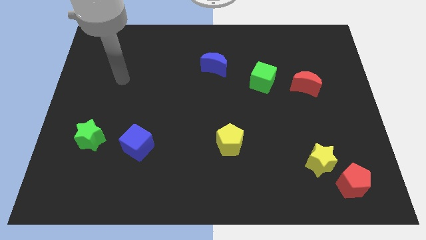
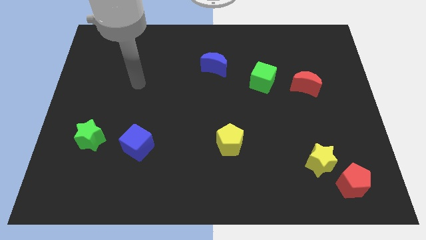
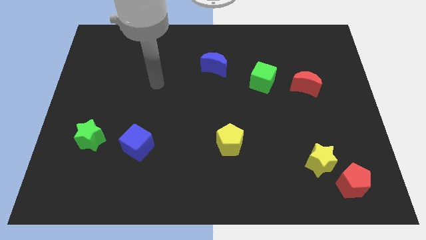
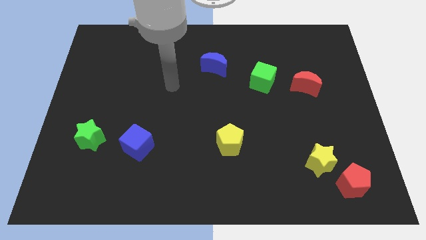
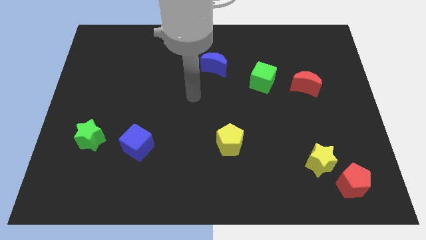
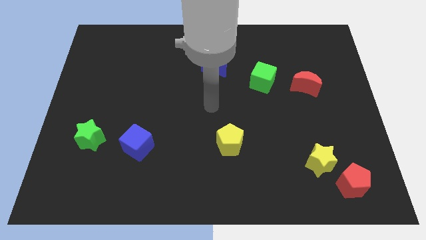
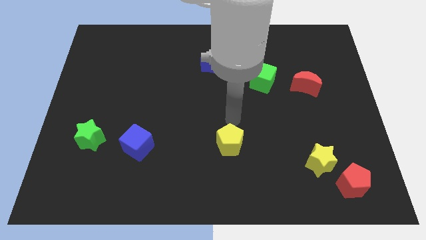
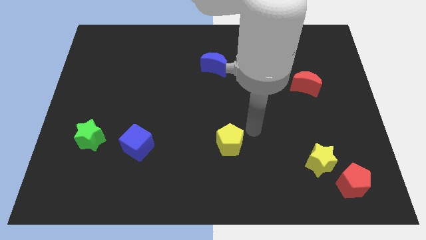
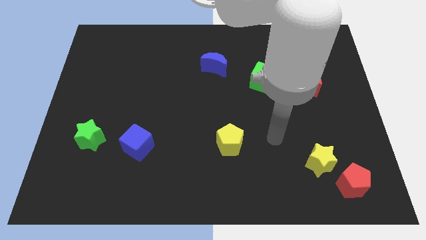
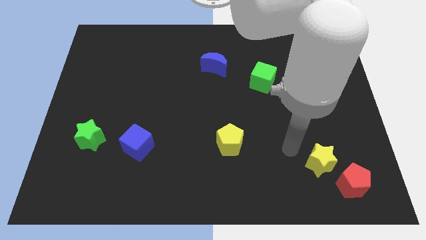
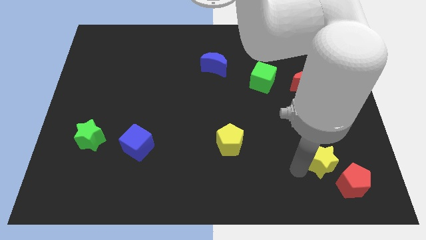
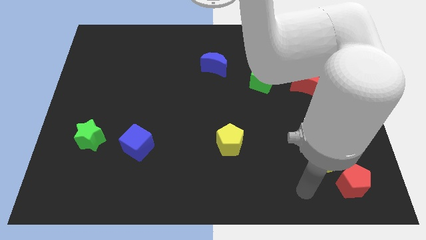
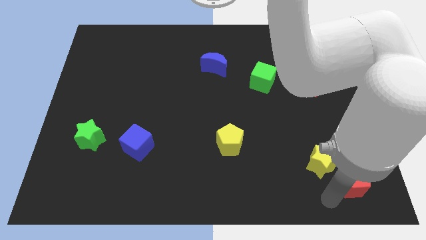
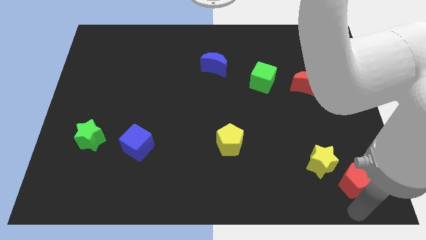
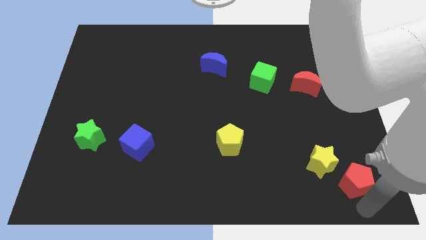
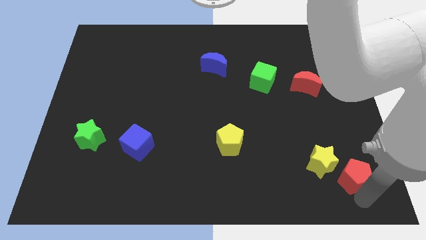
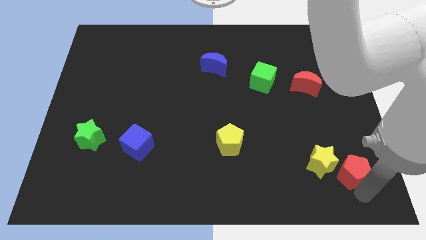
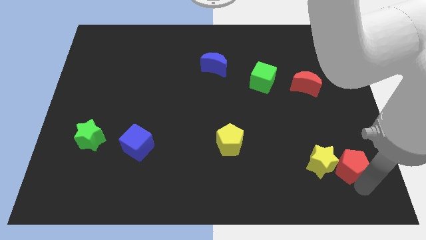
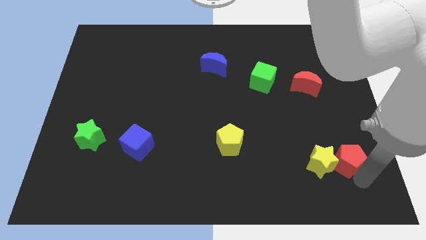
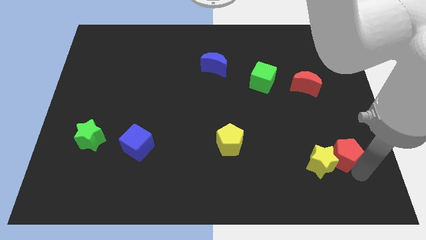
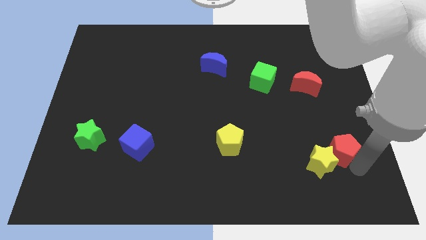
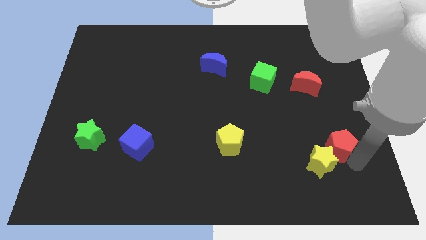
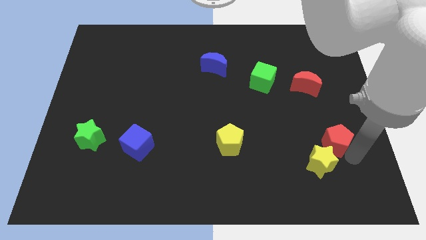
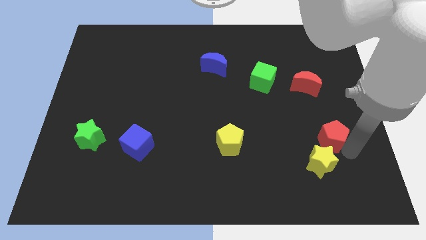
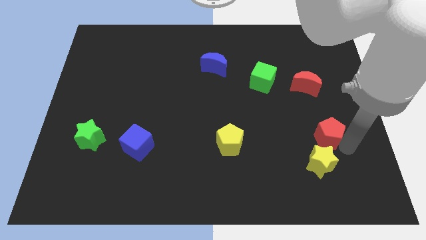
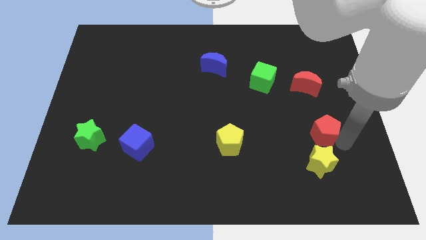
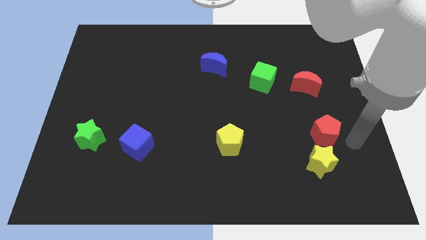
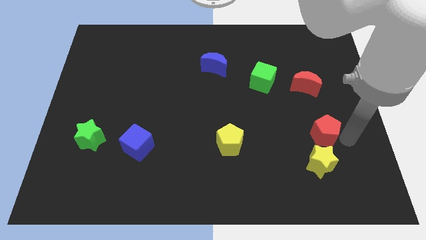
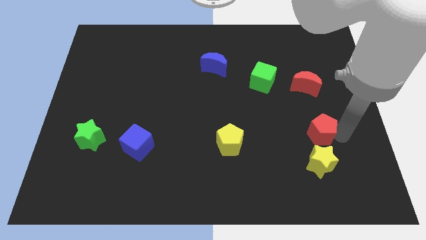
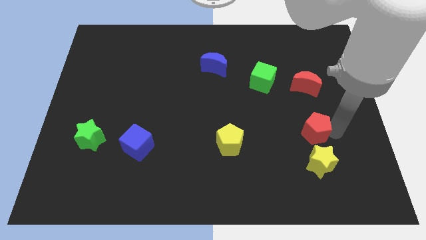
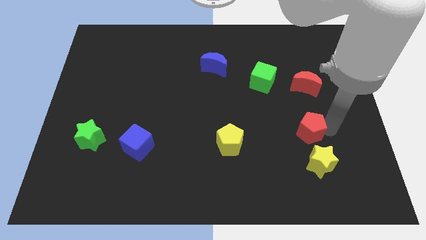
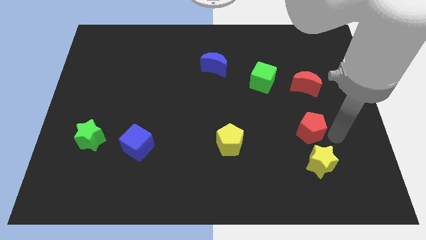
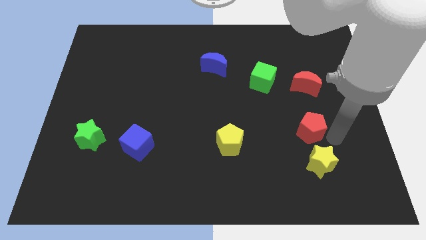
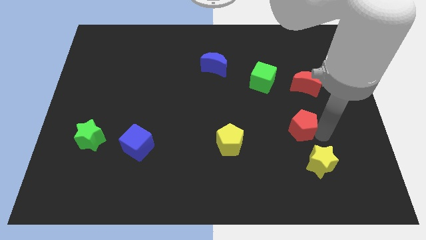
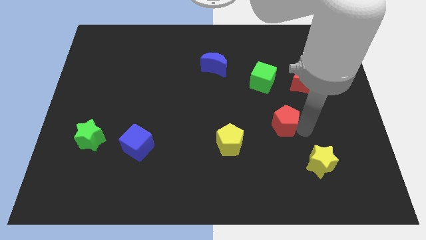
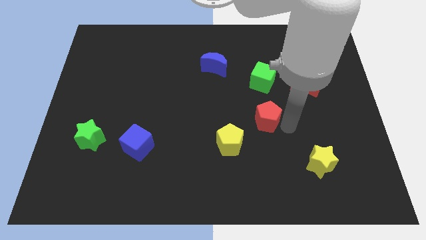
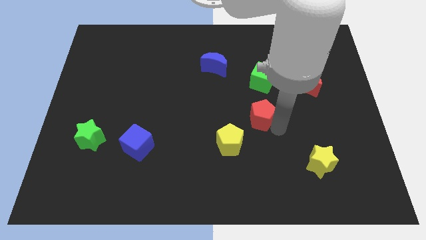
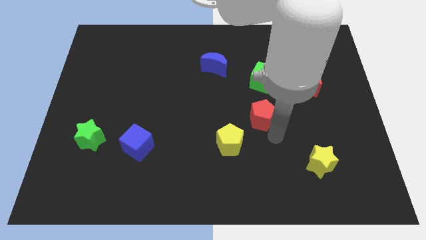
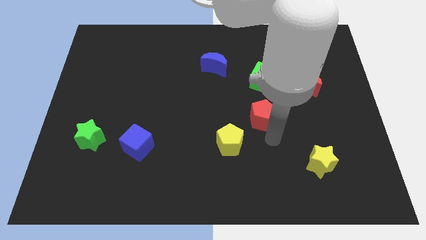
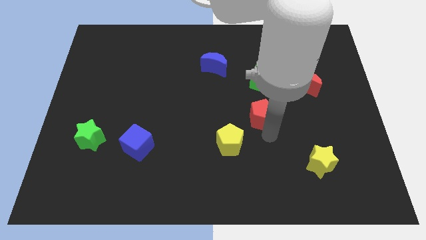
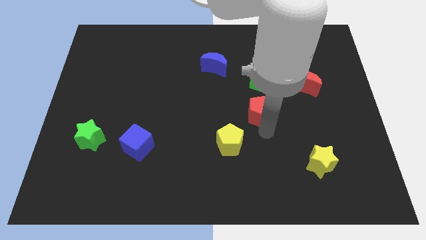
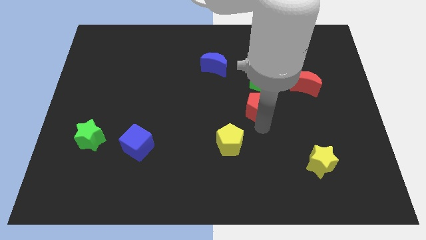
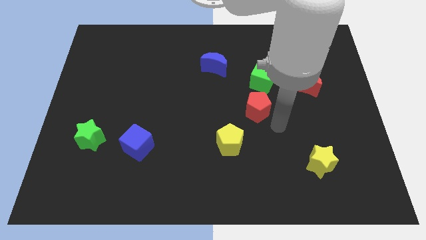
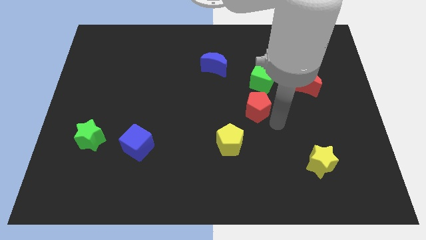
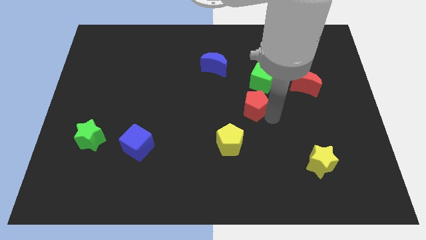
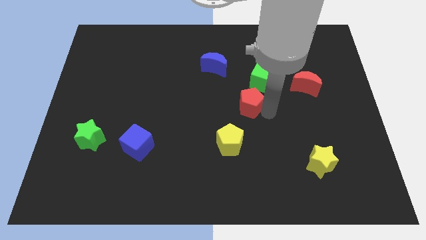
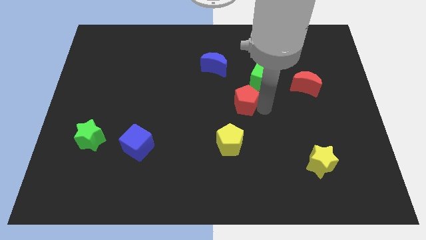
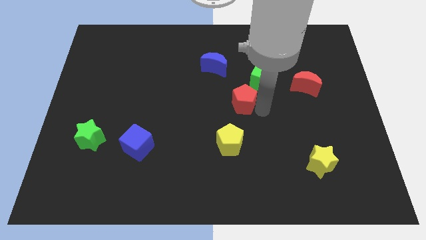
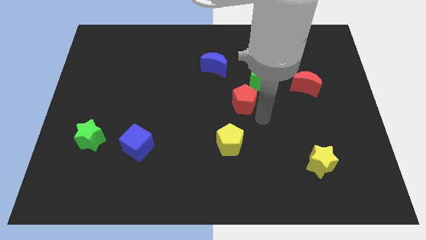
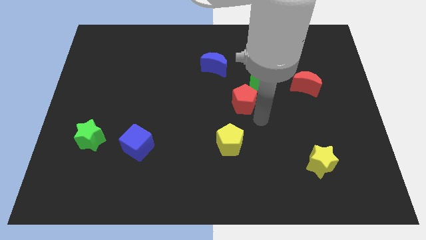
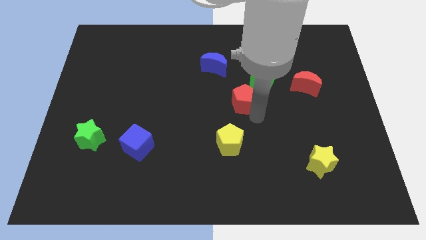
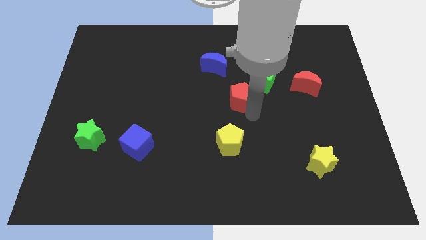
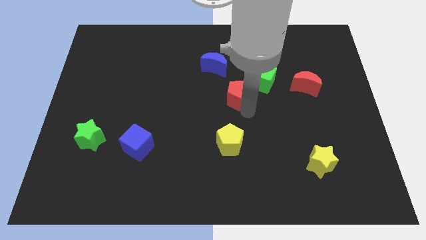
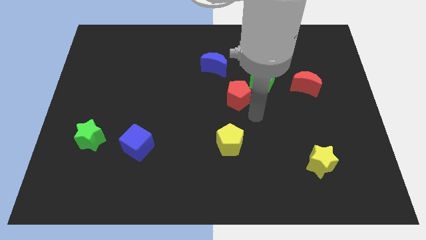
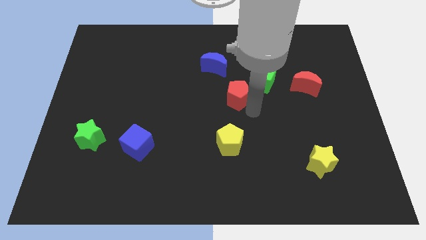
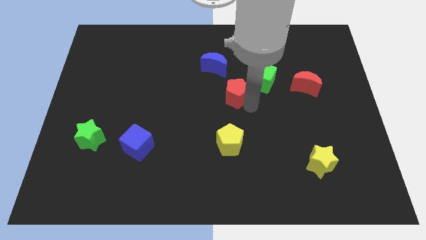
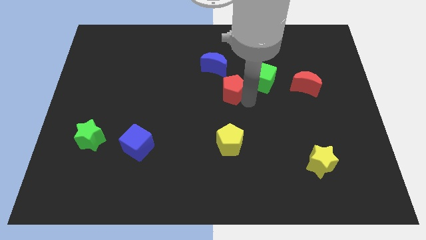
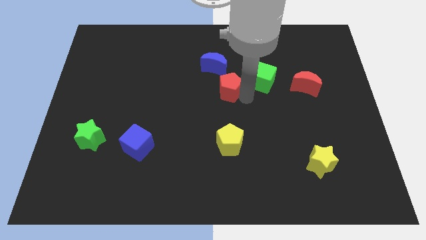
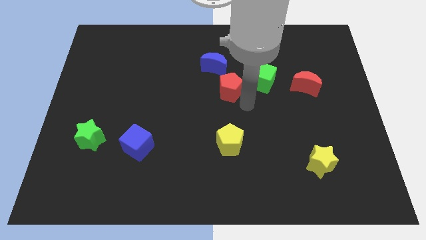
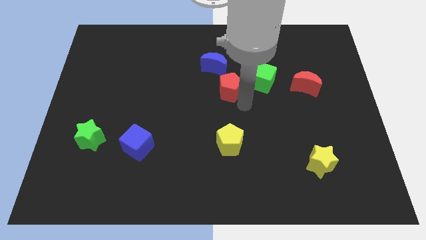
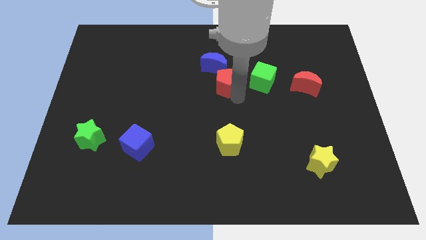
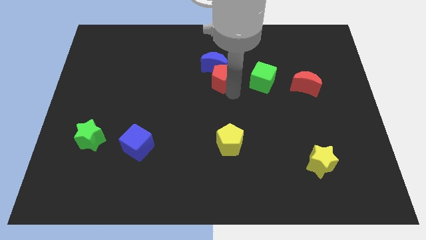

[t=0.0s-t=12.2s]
slide the red pentagon close to the blue moon
